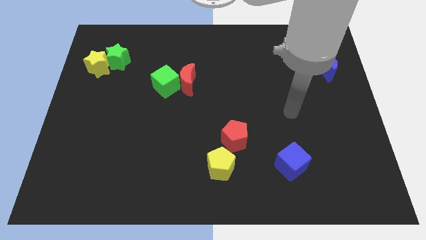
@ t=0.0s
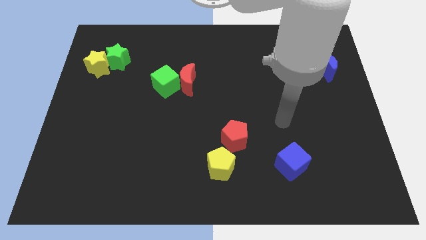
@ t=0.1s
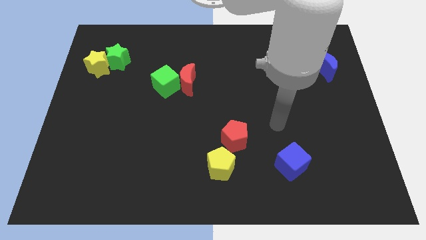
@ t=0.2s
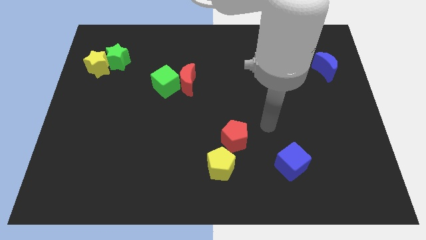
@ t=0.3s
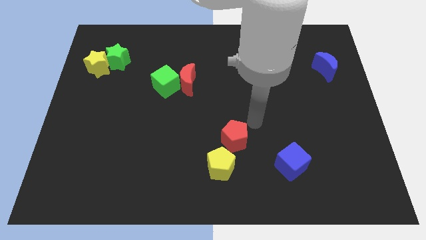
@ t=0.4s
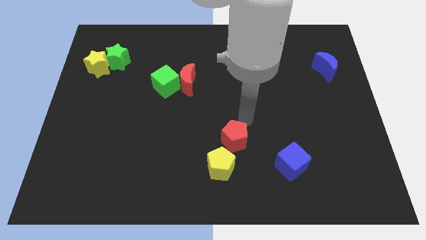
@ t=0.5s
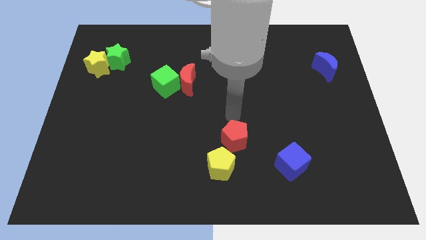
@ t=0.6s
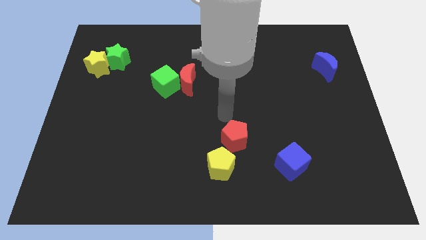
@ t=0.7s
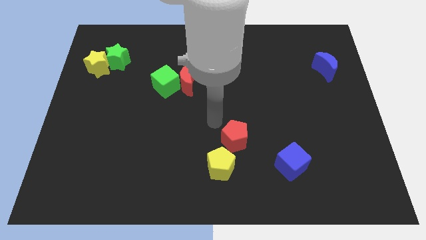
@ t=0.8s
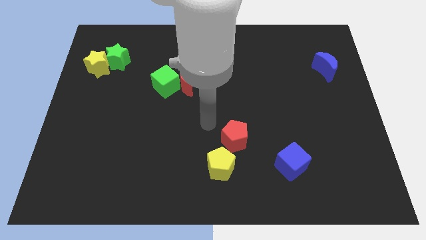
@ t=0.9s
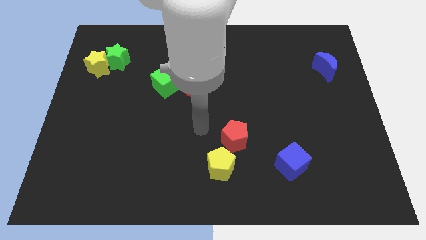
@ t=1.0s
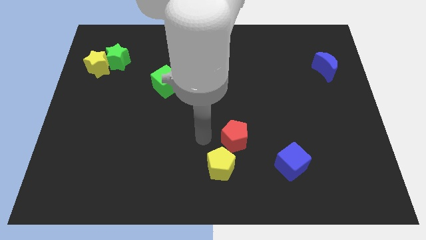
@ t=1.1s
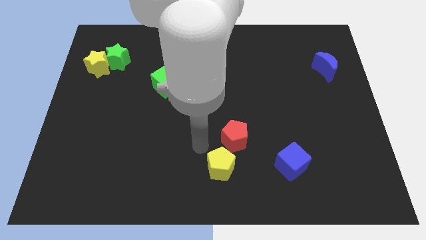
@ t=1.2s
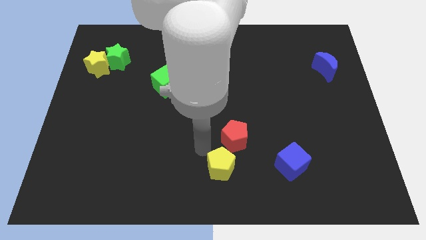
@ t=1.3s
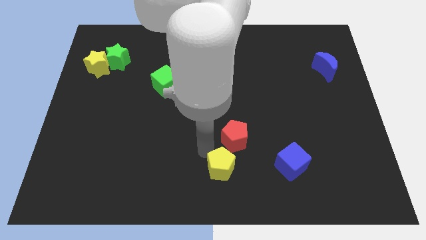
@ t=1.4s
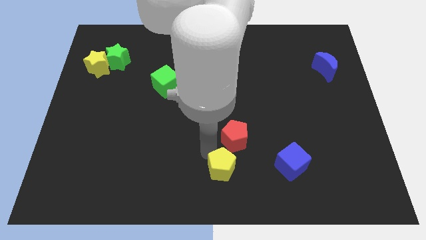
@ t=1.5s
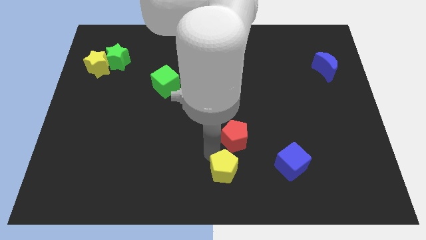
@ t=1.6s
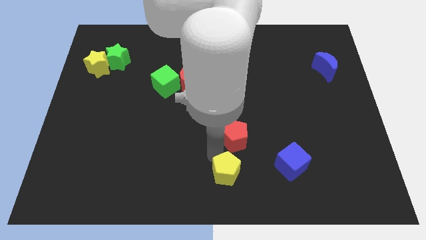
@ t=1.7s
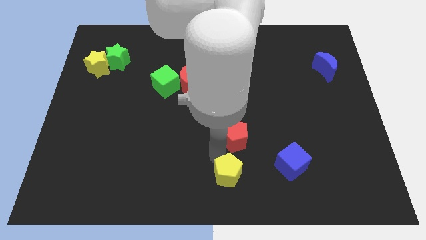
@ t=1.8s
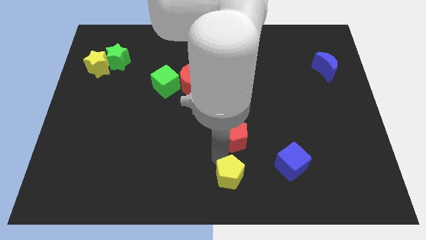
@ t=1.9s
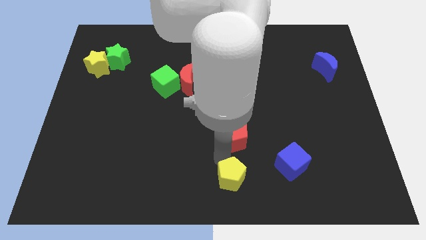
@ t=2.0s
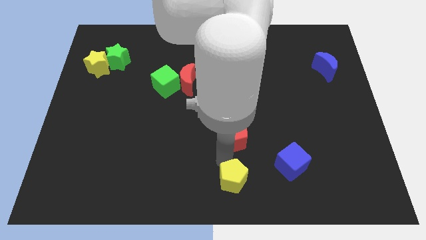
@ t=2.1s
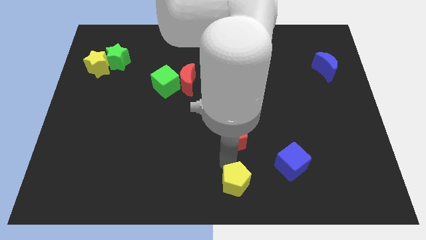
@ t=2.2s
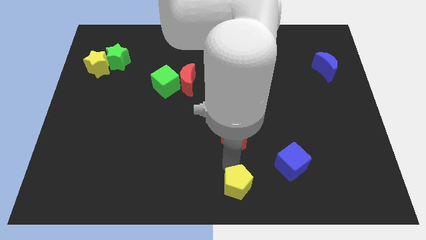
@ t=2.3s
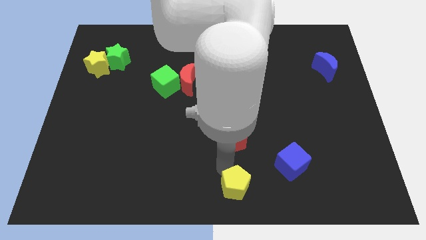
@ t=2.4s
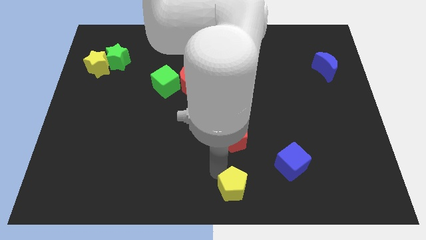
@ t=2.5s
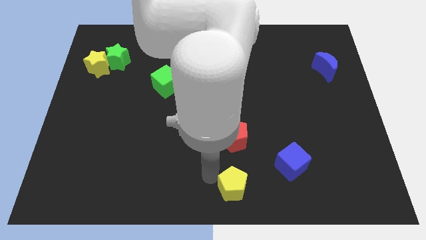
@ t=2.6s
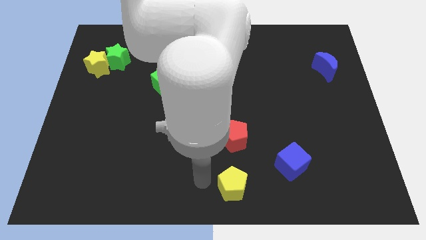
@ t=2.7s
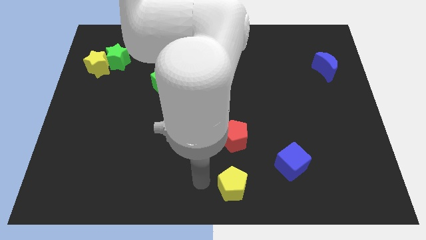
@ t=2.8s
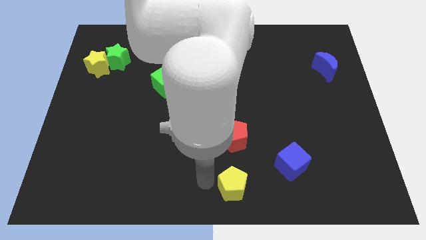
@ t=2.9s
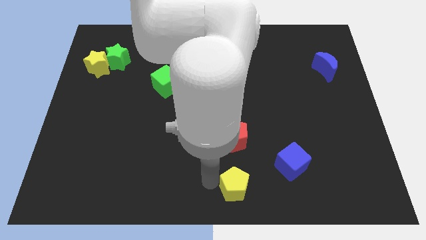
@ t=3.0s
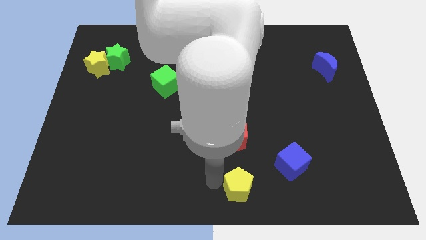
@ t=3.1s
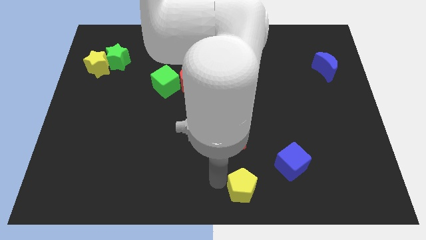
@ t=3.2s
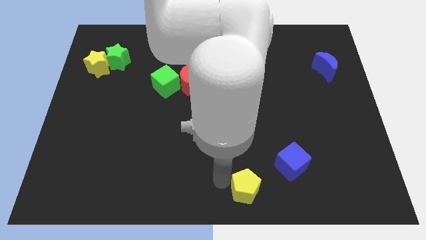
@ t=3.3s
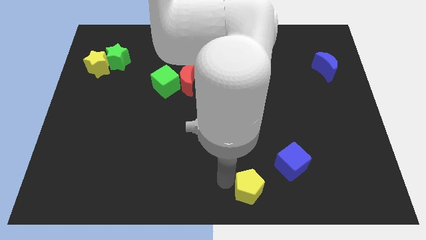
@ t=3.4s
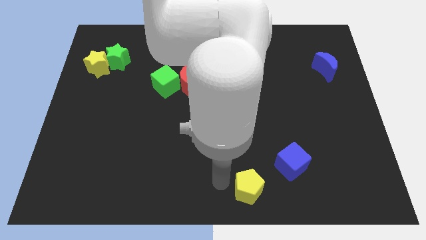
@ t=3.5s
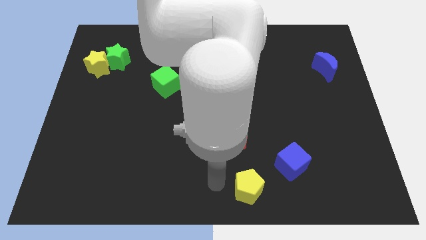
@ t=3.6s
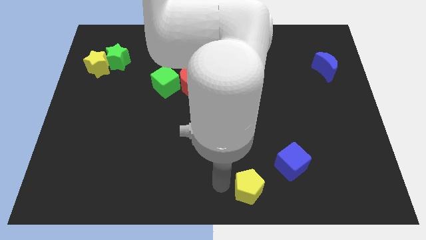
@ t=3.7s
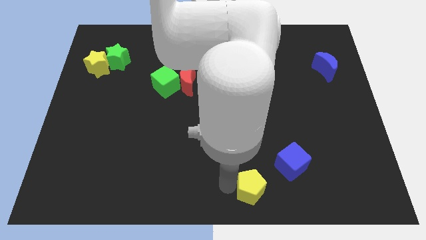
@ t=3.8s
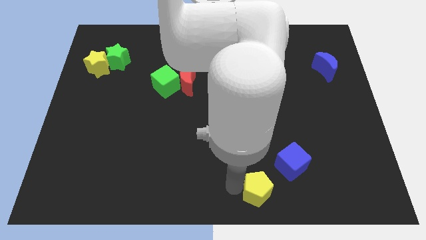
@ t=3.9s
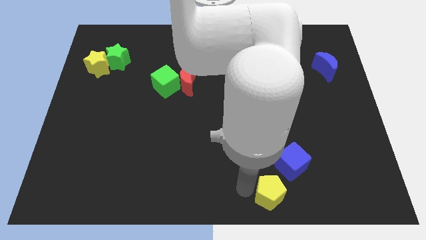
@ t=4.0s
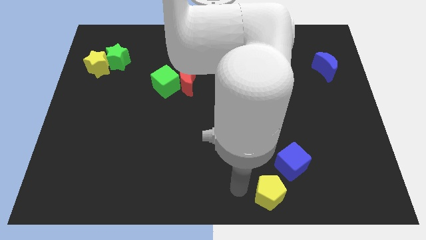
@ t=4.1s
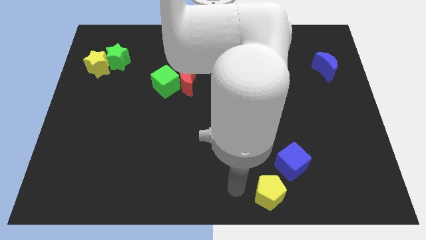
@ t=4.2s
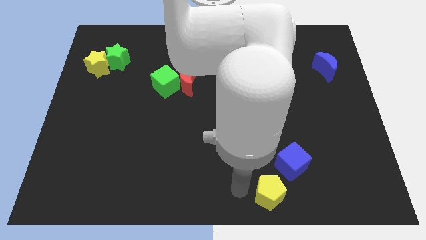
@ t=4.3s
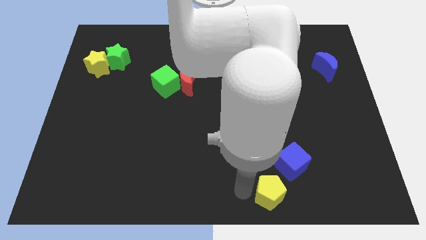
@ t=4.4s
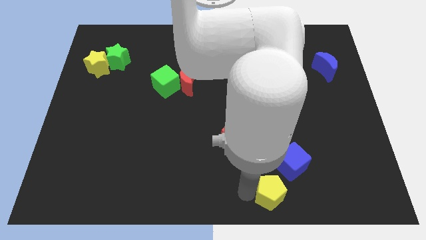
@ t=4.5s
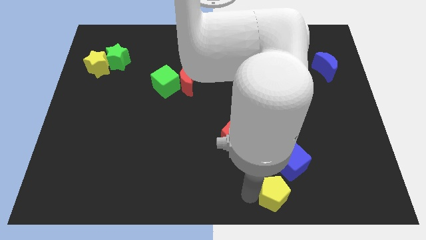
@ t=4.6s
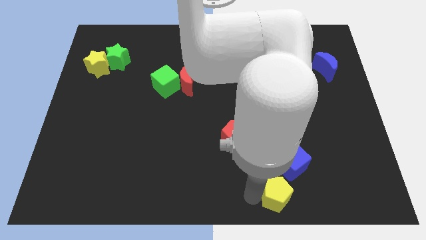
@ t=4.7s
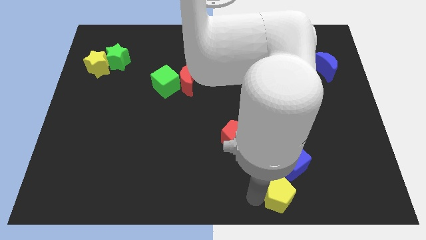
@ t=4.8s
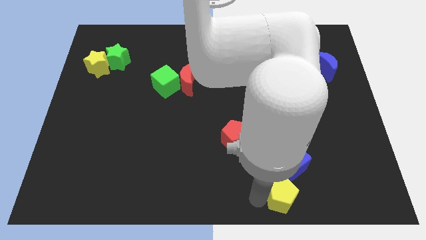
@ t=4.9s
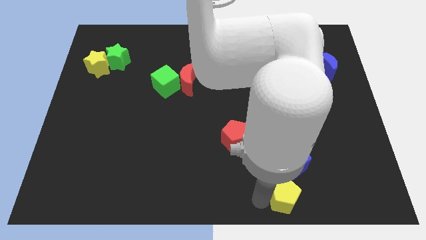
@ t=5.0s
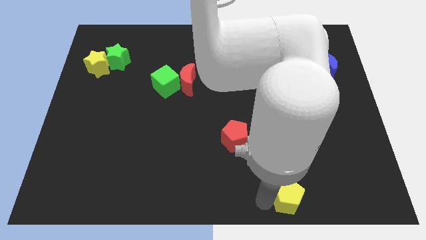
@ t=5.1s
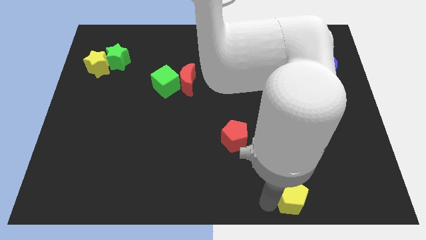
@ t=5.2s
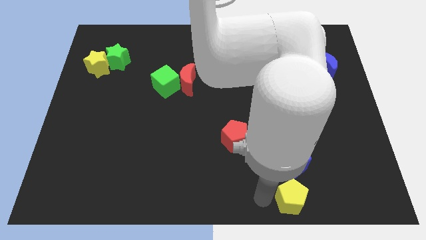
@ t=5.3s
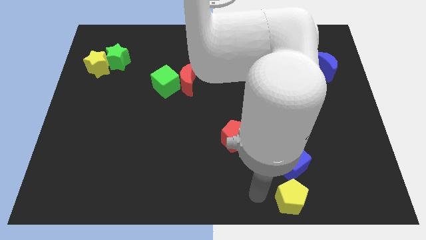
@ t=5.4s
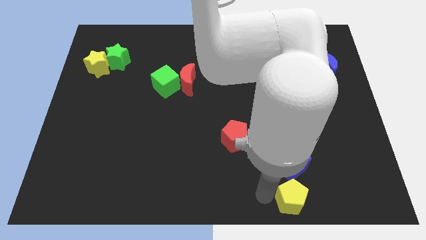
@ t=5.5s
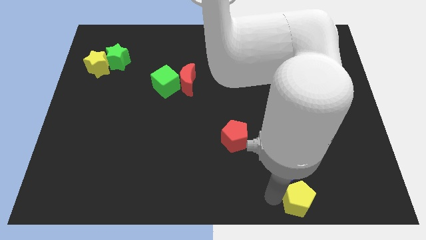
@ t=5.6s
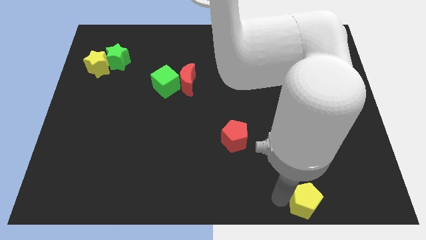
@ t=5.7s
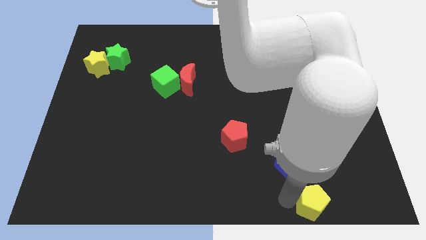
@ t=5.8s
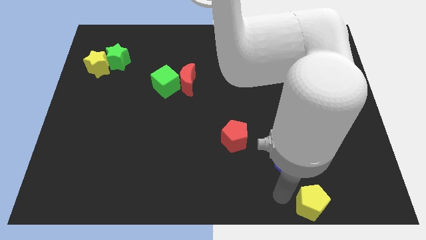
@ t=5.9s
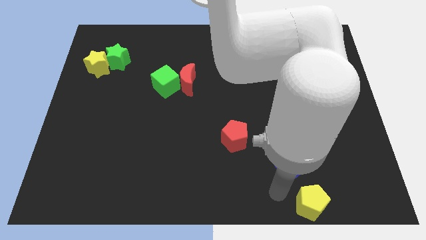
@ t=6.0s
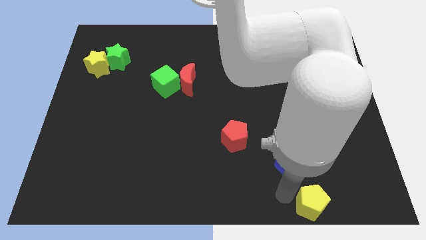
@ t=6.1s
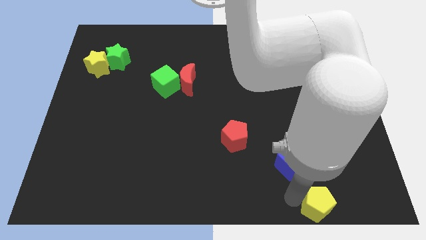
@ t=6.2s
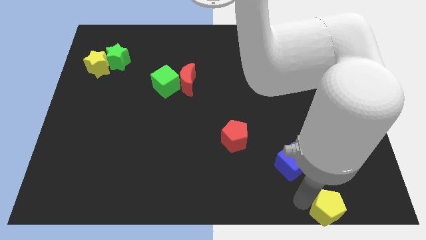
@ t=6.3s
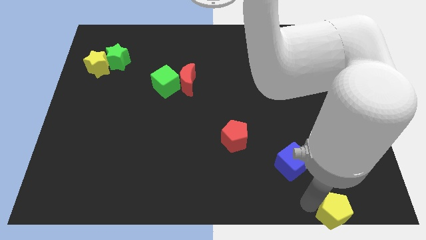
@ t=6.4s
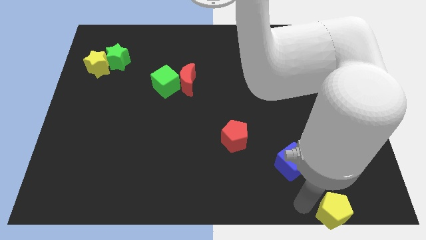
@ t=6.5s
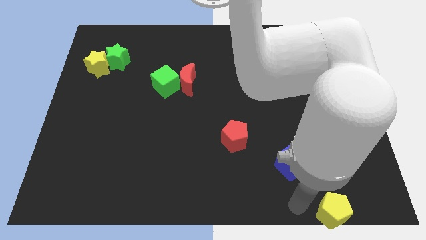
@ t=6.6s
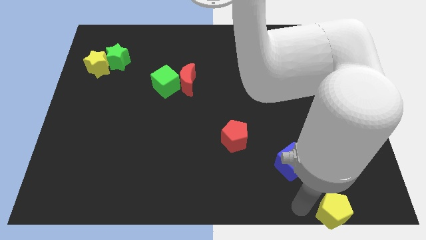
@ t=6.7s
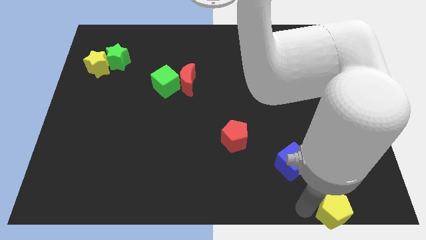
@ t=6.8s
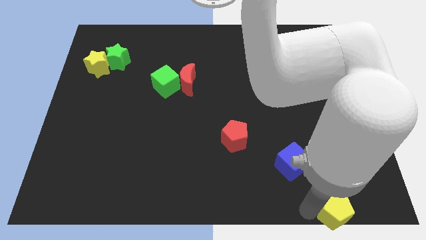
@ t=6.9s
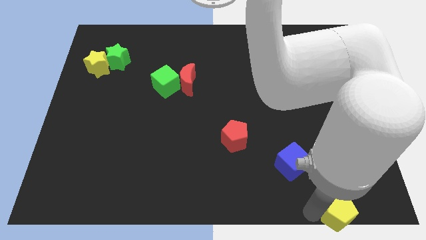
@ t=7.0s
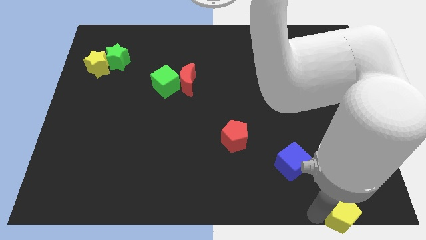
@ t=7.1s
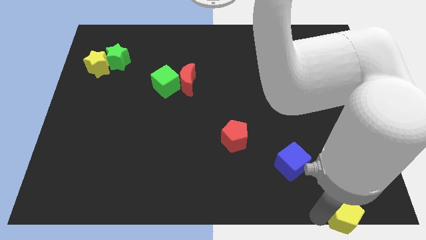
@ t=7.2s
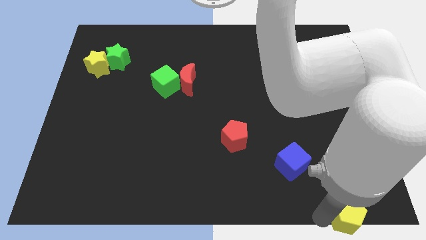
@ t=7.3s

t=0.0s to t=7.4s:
move the yellow pentagon to the bottom right of the board

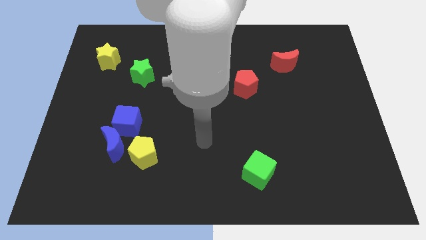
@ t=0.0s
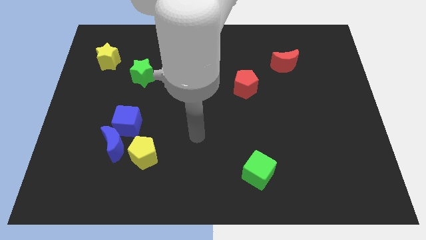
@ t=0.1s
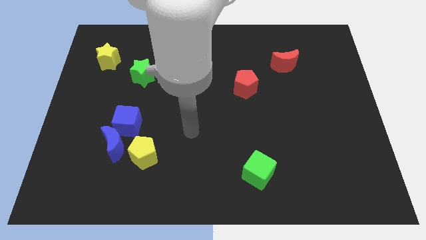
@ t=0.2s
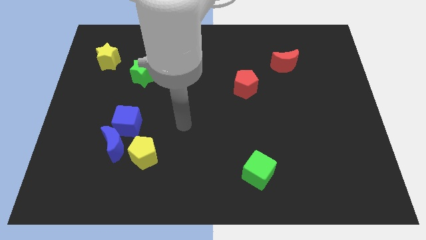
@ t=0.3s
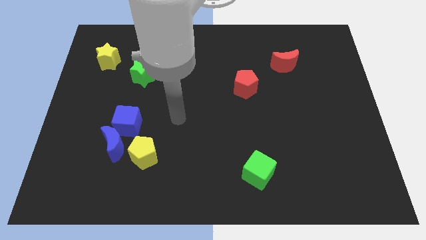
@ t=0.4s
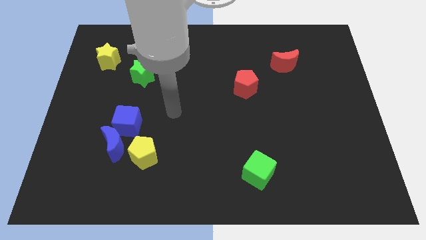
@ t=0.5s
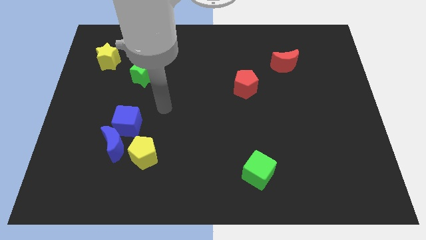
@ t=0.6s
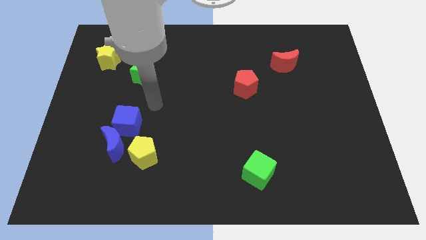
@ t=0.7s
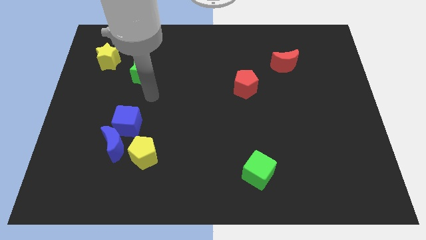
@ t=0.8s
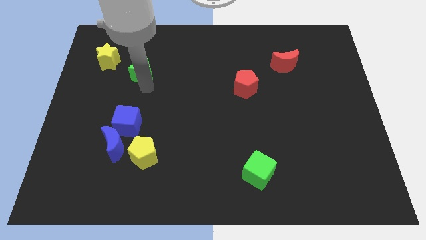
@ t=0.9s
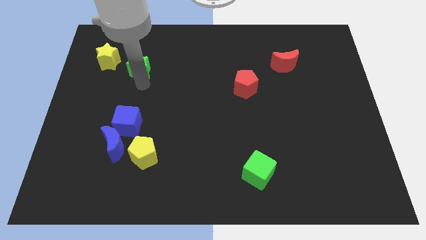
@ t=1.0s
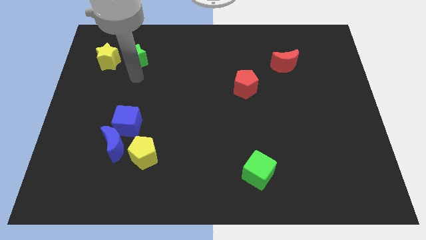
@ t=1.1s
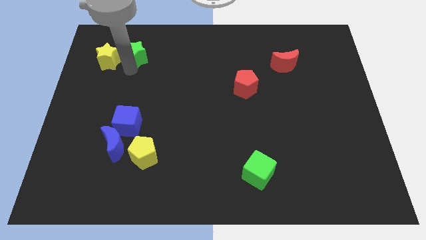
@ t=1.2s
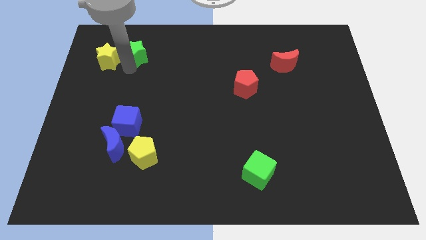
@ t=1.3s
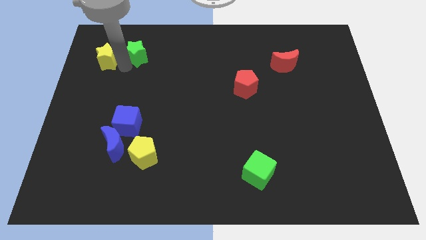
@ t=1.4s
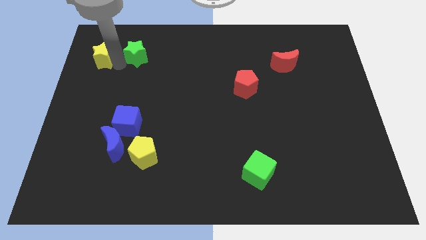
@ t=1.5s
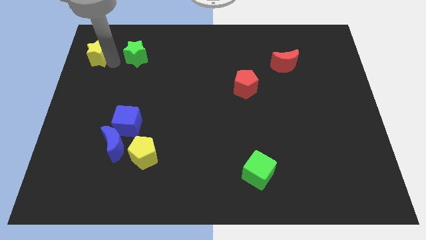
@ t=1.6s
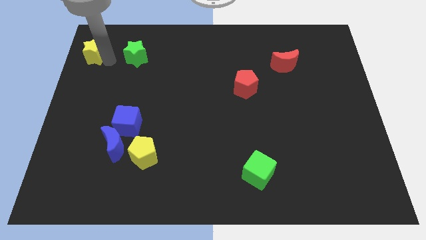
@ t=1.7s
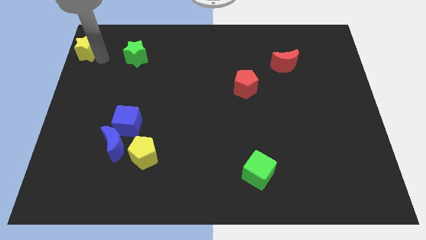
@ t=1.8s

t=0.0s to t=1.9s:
push the yellow star to the upper left corner
